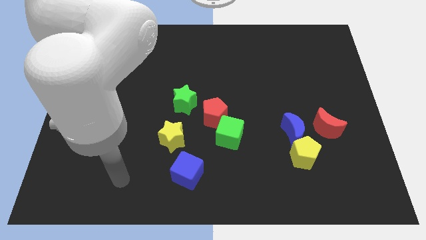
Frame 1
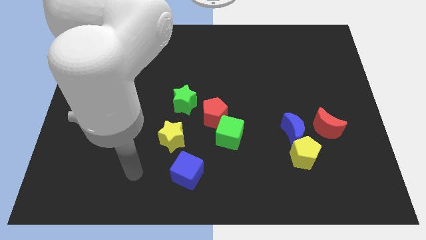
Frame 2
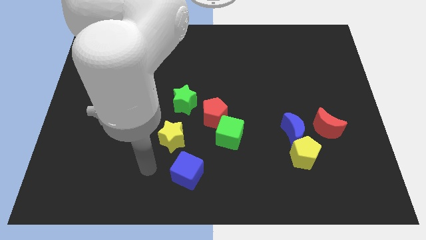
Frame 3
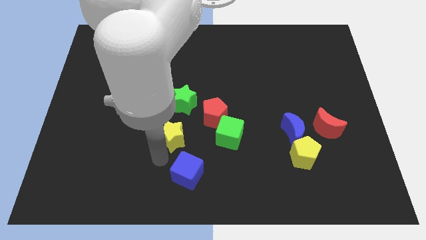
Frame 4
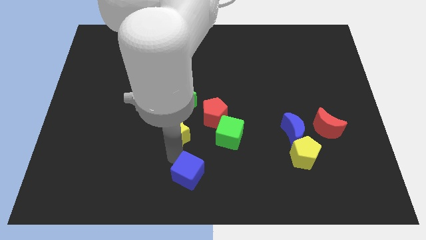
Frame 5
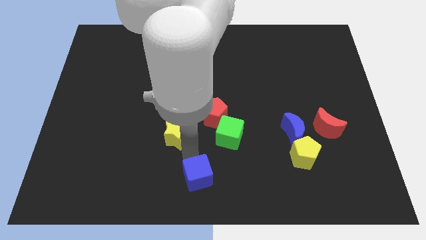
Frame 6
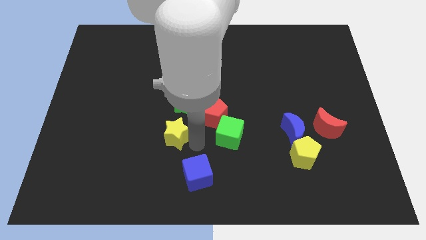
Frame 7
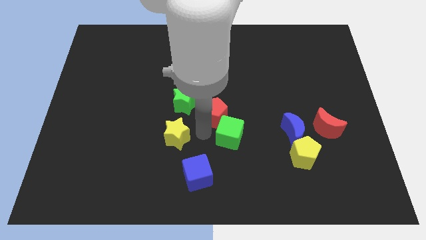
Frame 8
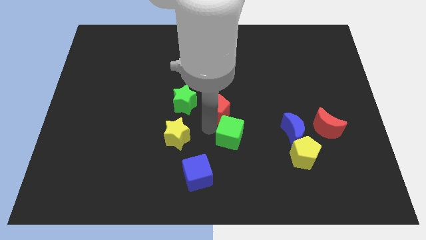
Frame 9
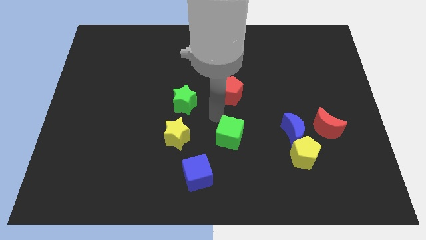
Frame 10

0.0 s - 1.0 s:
separate the green cube from the red pentagon

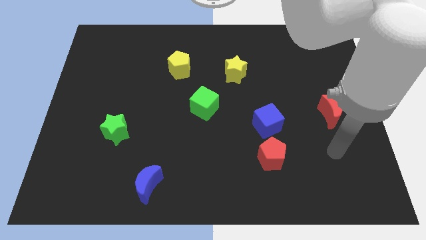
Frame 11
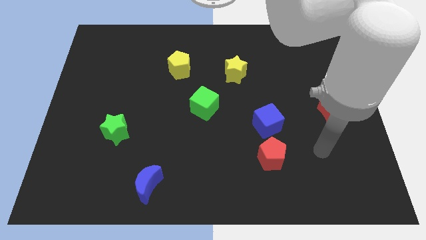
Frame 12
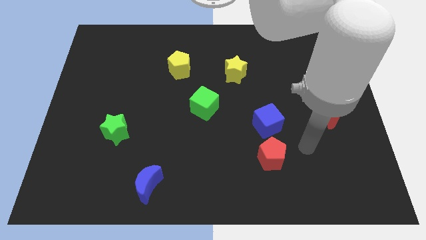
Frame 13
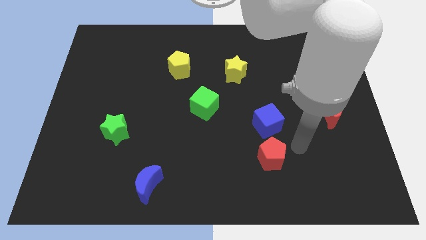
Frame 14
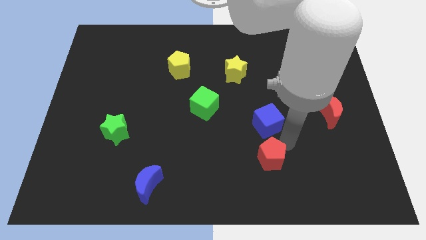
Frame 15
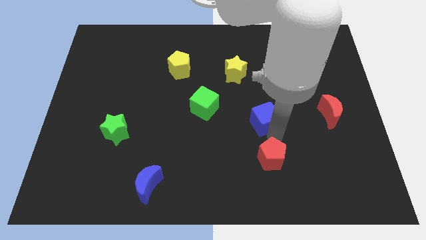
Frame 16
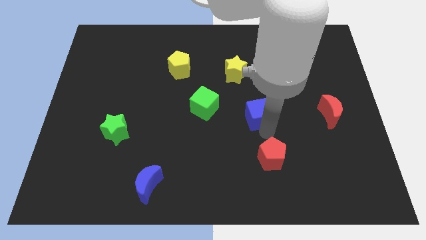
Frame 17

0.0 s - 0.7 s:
separate the red pentagon from the blue cube

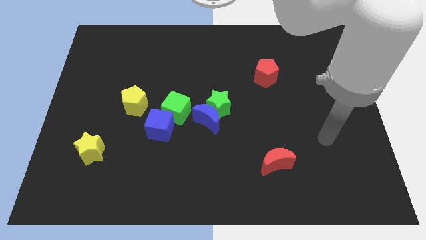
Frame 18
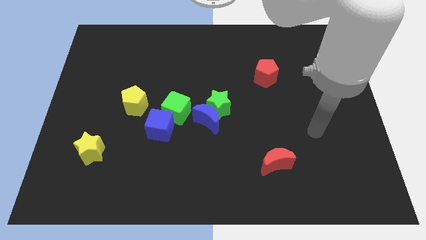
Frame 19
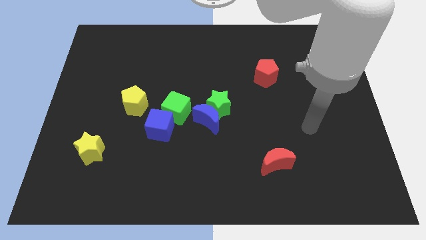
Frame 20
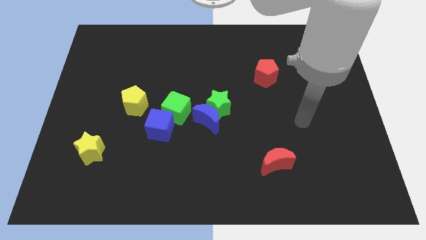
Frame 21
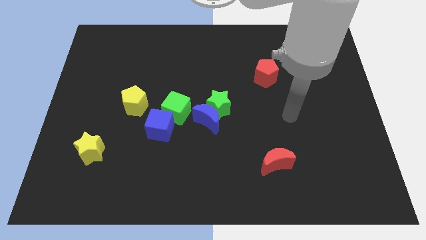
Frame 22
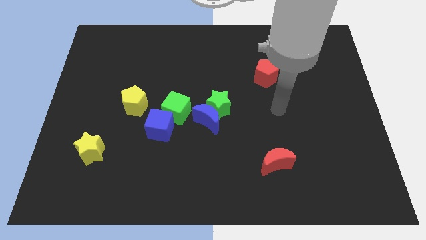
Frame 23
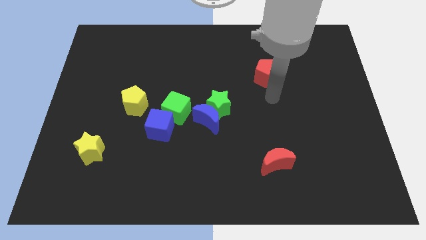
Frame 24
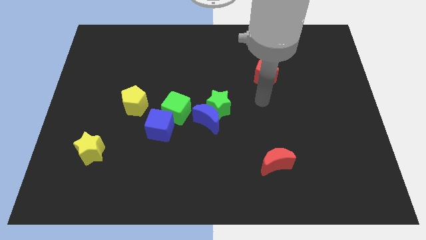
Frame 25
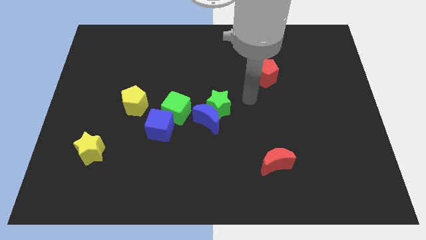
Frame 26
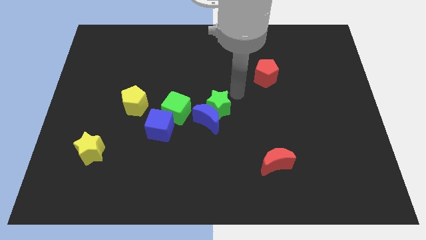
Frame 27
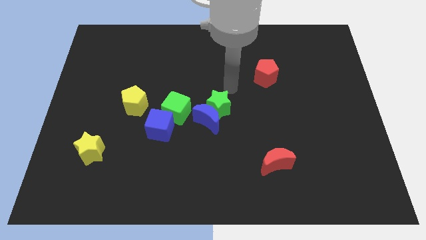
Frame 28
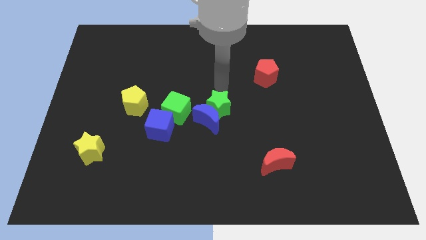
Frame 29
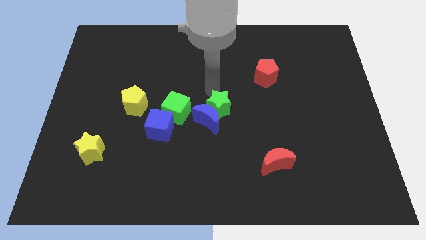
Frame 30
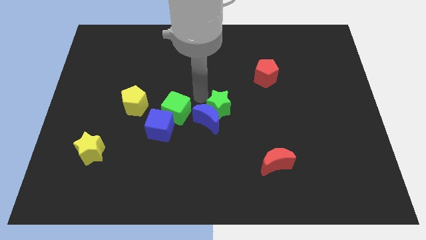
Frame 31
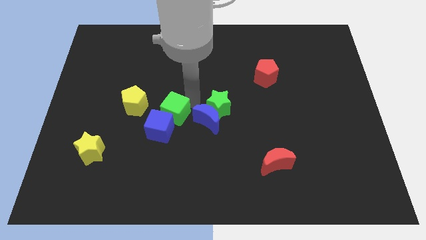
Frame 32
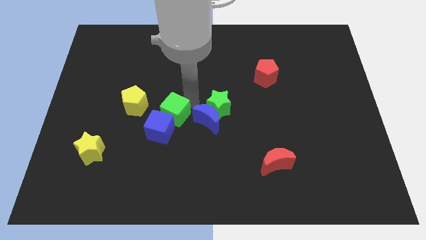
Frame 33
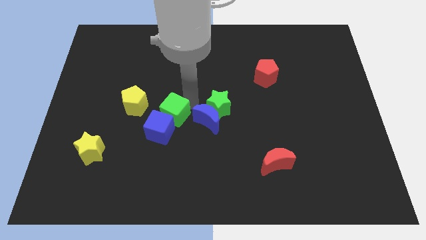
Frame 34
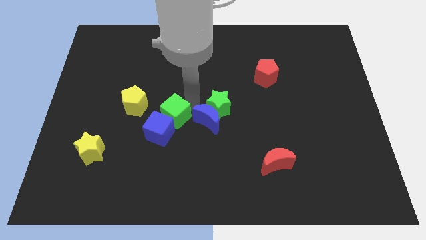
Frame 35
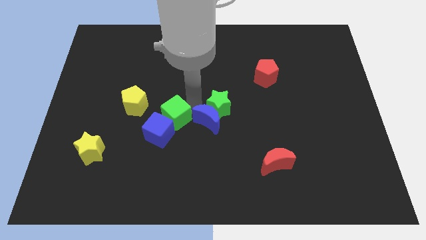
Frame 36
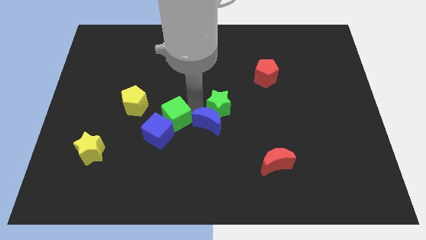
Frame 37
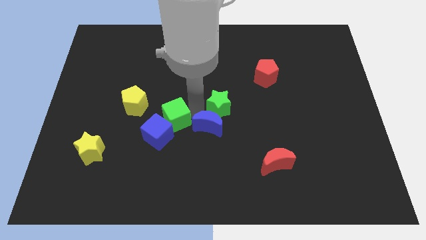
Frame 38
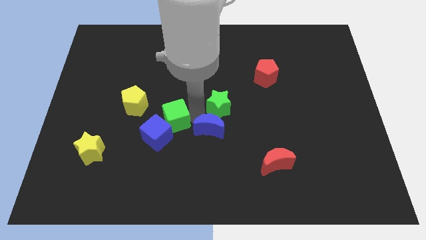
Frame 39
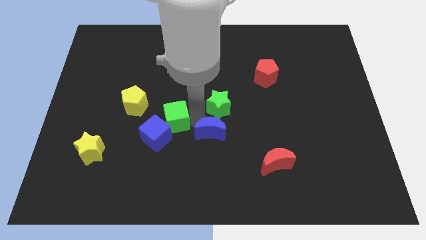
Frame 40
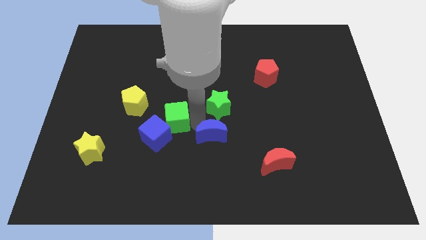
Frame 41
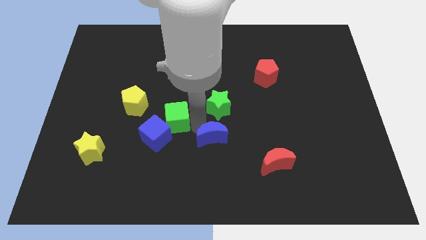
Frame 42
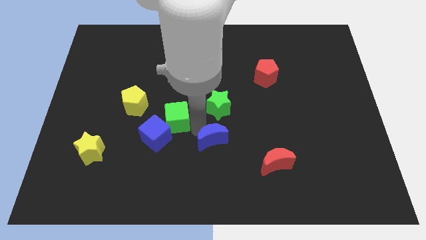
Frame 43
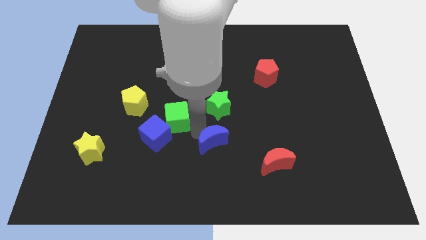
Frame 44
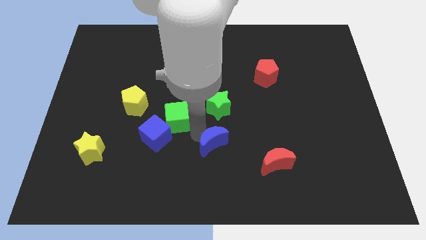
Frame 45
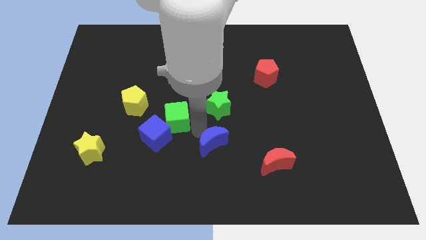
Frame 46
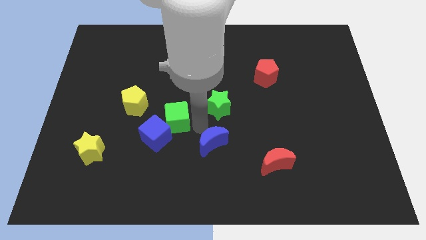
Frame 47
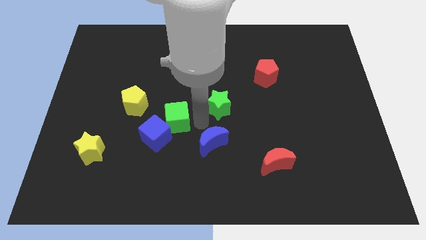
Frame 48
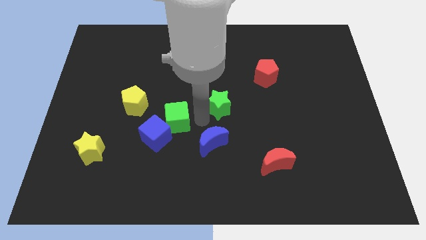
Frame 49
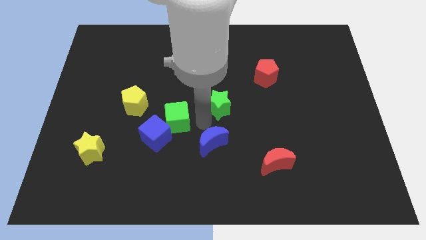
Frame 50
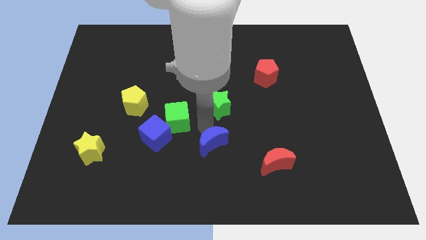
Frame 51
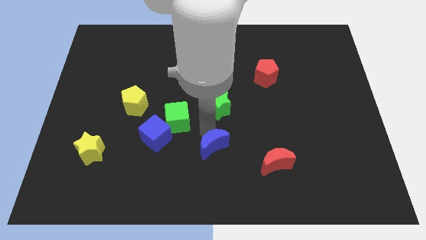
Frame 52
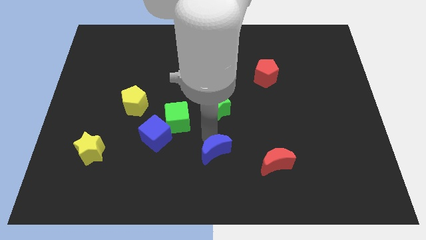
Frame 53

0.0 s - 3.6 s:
separate the blue moon from the green star and green cube

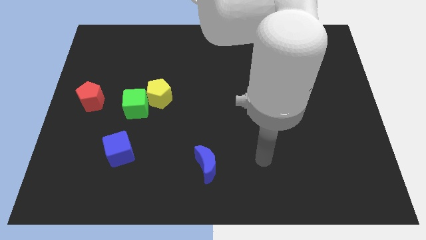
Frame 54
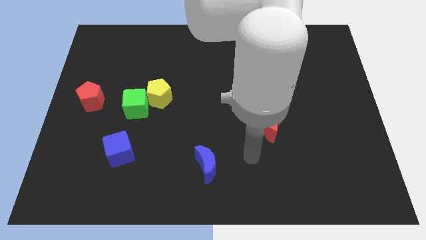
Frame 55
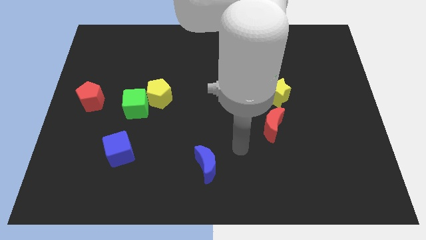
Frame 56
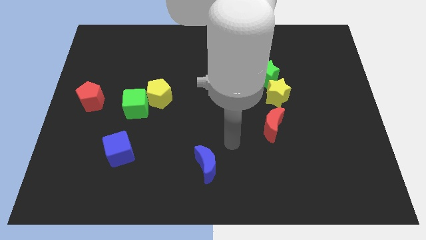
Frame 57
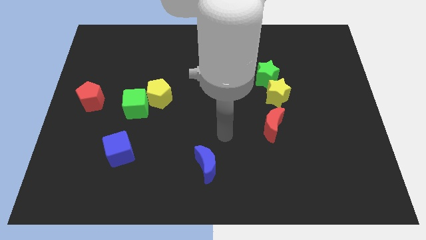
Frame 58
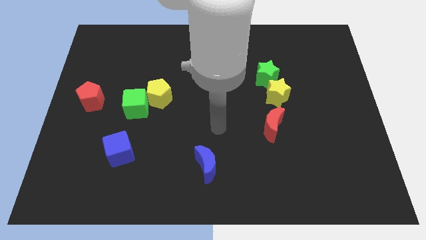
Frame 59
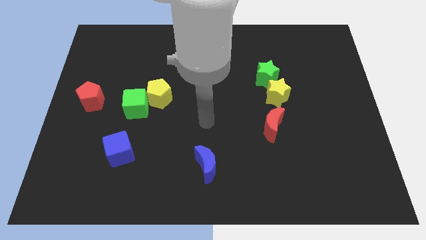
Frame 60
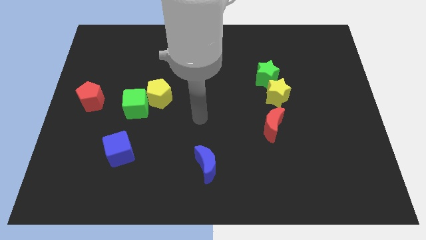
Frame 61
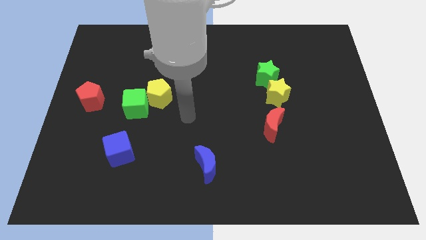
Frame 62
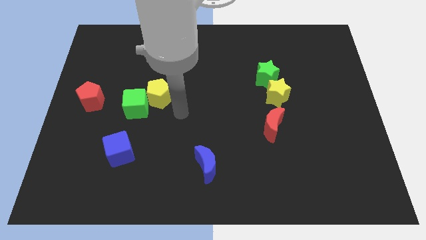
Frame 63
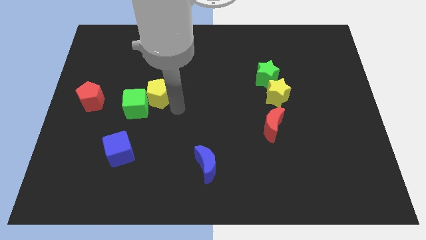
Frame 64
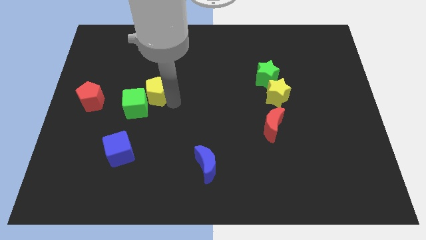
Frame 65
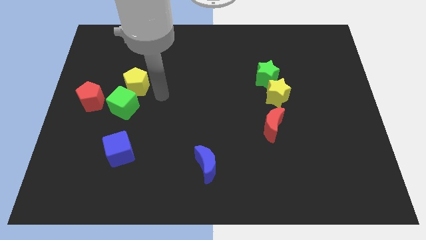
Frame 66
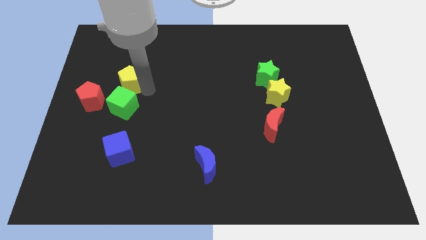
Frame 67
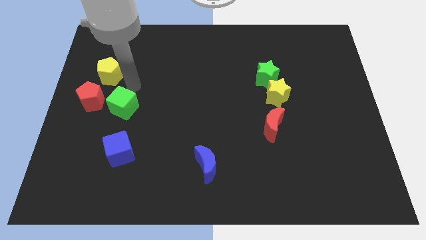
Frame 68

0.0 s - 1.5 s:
move the green cube away from the yellow pentagon

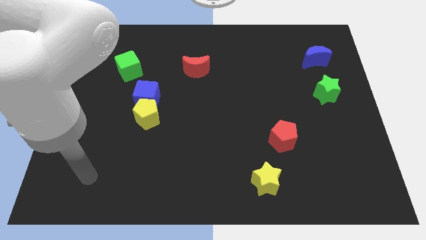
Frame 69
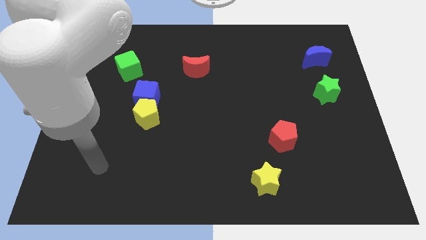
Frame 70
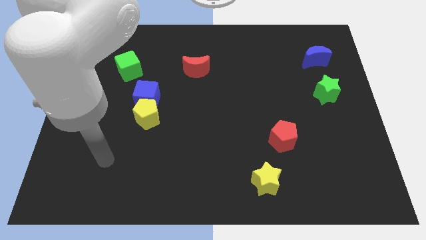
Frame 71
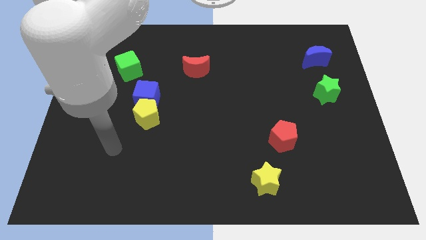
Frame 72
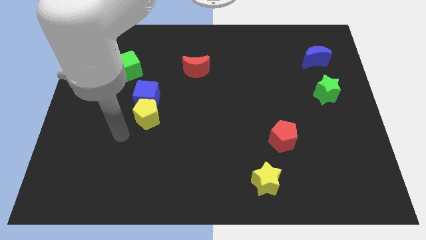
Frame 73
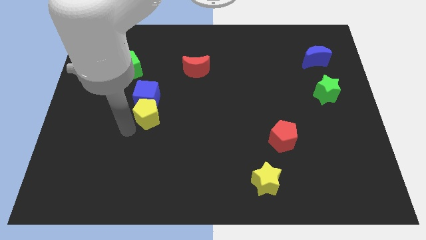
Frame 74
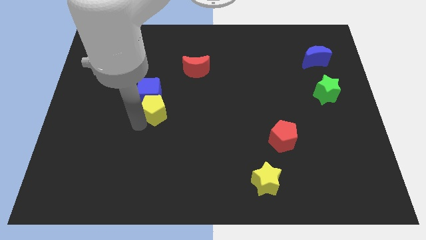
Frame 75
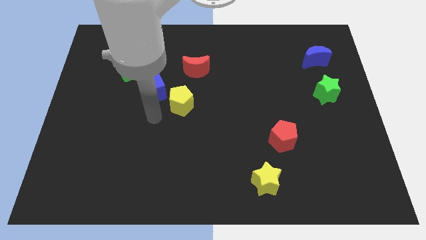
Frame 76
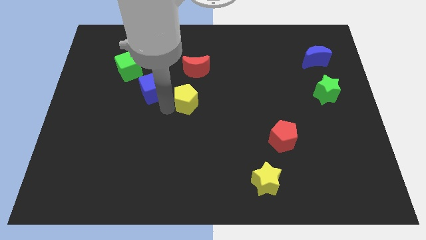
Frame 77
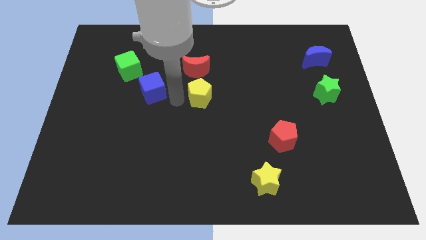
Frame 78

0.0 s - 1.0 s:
pull the blue cube apart from the yellow pentagon

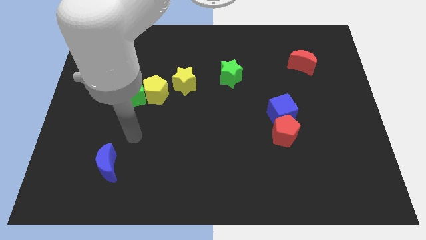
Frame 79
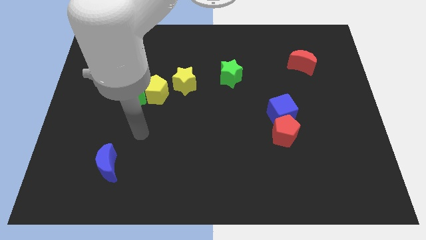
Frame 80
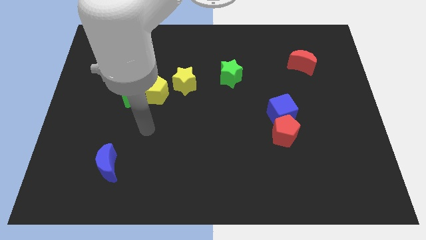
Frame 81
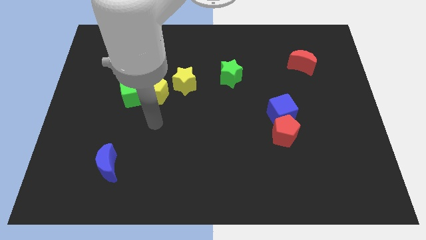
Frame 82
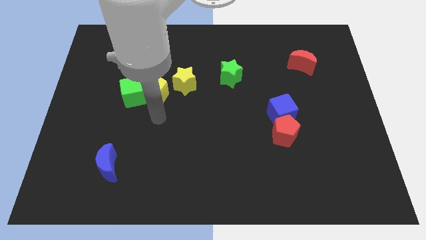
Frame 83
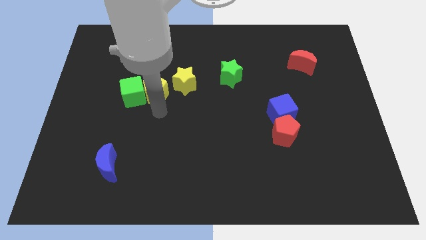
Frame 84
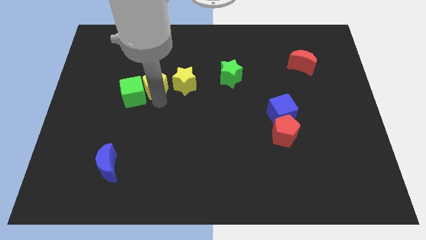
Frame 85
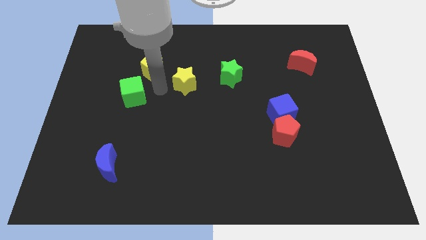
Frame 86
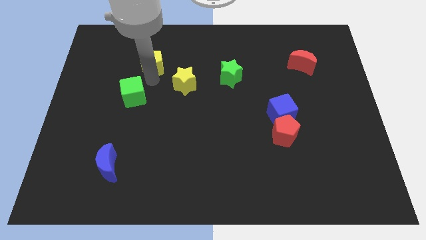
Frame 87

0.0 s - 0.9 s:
separate the green cube from the yellow pentagon

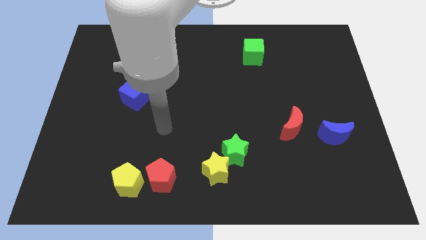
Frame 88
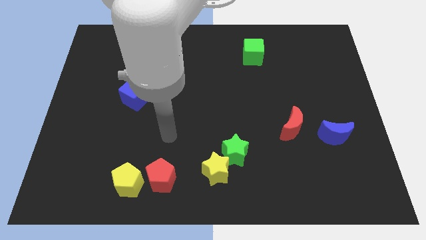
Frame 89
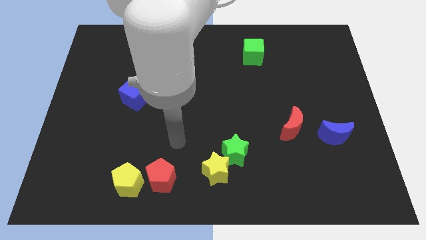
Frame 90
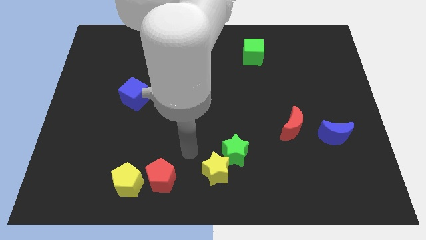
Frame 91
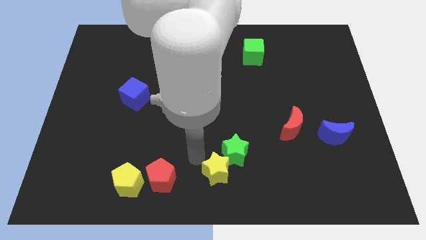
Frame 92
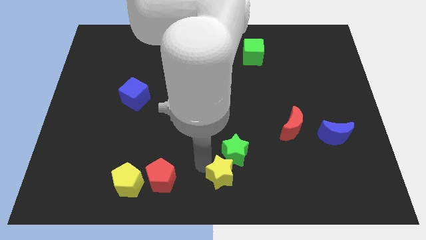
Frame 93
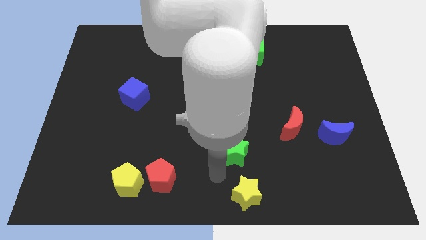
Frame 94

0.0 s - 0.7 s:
move the green star away from the yellow star
